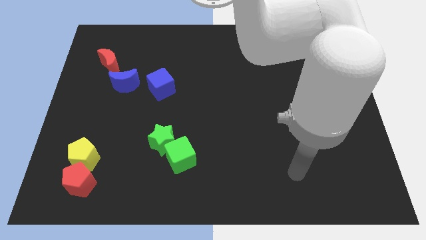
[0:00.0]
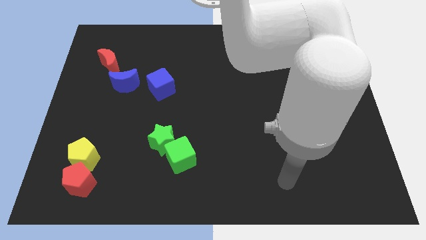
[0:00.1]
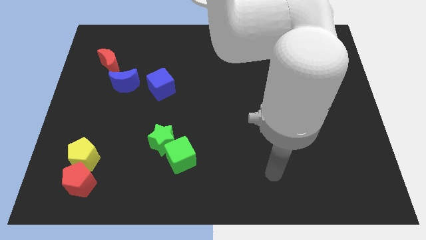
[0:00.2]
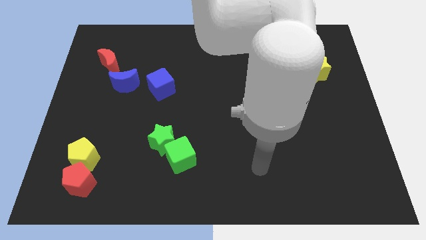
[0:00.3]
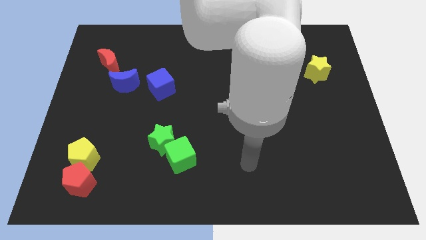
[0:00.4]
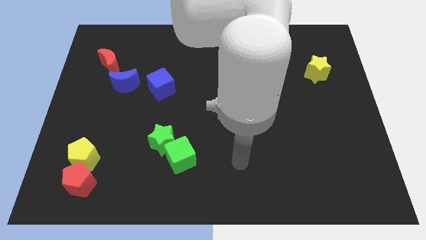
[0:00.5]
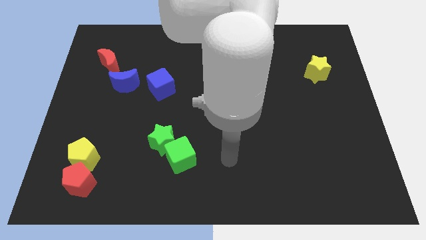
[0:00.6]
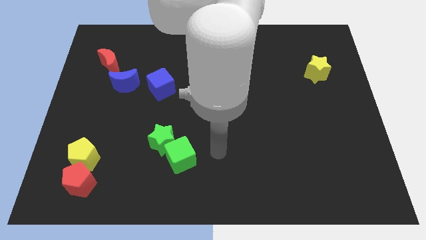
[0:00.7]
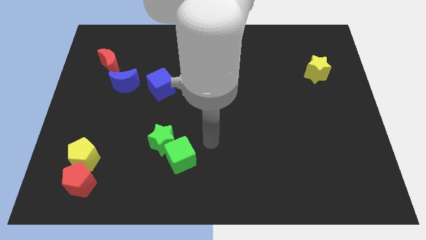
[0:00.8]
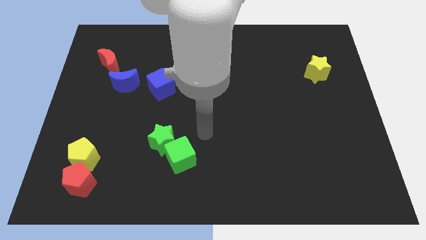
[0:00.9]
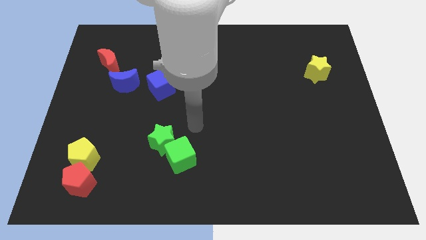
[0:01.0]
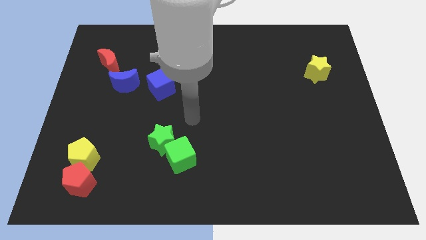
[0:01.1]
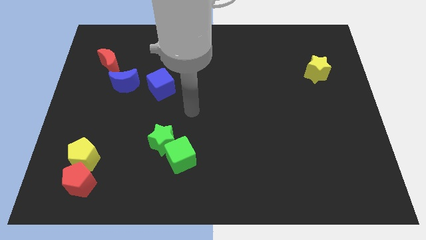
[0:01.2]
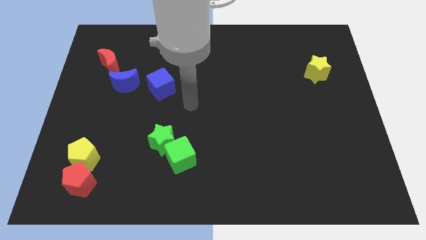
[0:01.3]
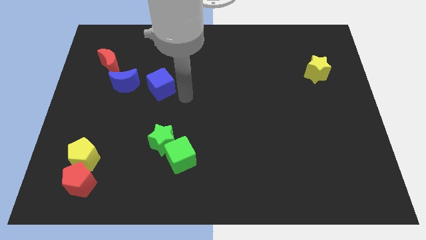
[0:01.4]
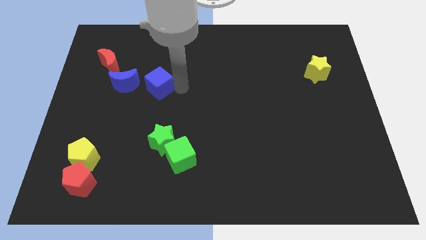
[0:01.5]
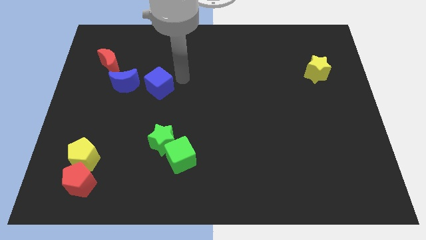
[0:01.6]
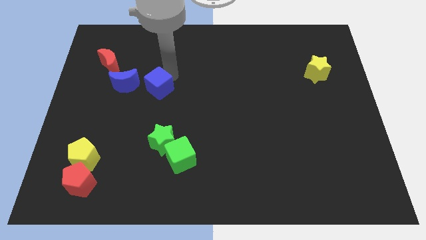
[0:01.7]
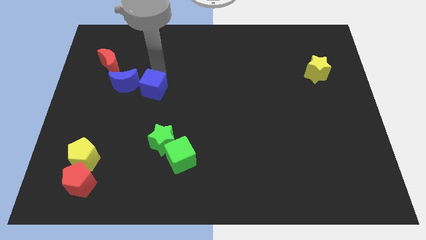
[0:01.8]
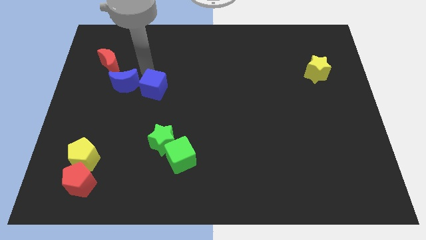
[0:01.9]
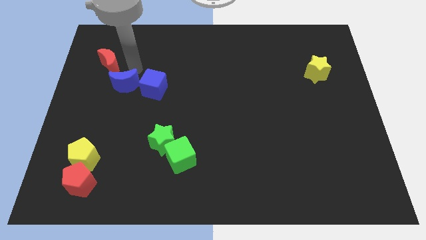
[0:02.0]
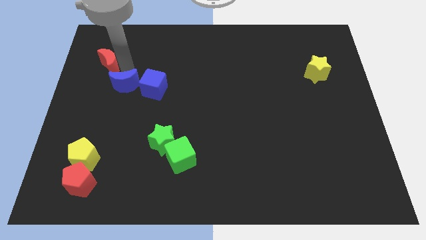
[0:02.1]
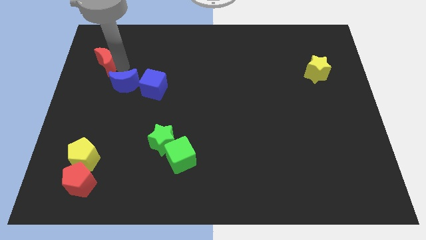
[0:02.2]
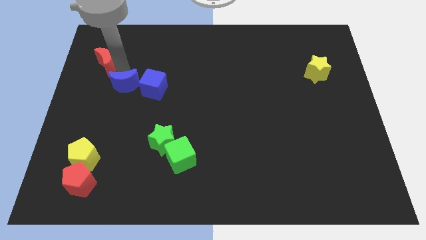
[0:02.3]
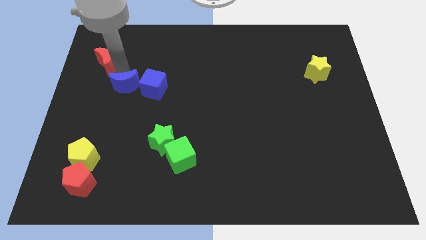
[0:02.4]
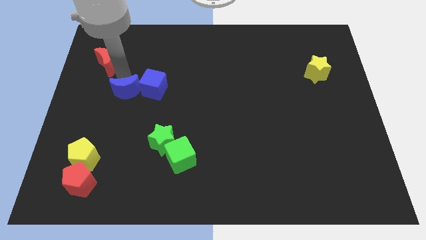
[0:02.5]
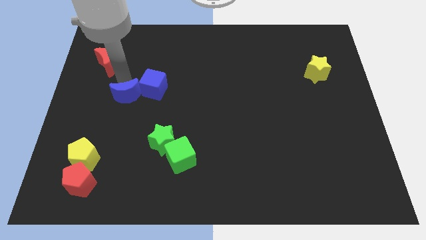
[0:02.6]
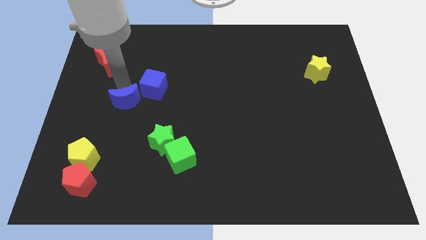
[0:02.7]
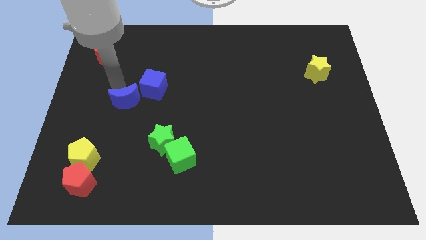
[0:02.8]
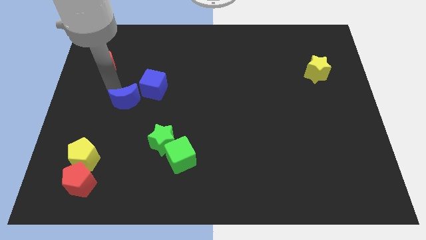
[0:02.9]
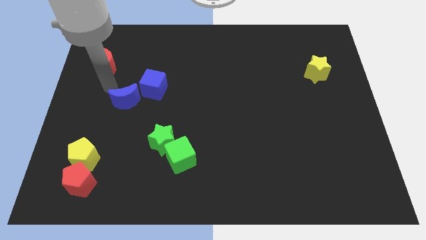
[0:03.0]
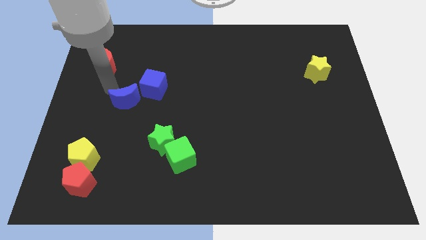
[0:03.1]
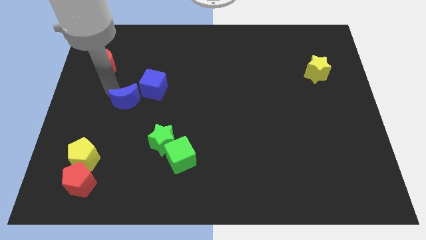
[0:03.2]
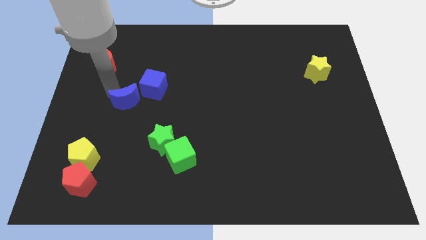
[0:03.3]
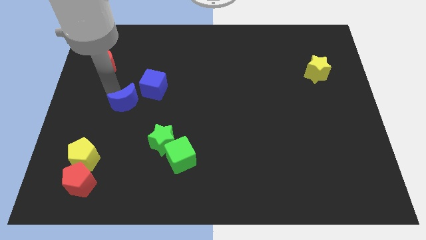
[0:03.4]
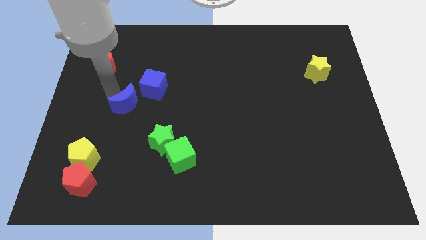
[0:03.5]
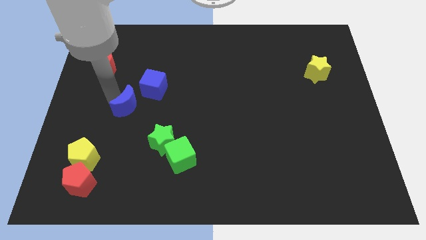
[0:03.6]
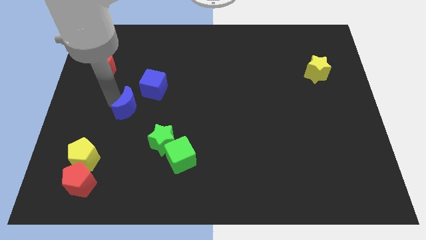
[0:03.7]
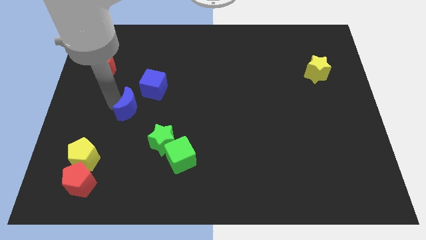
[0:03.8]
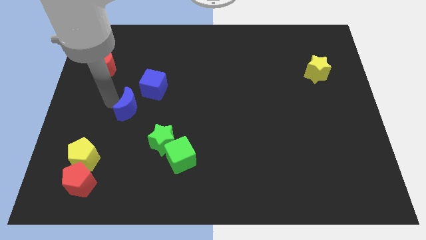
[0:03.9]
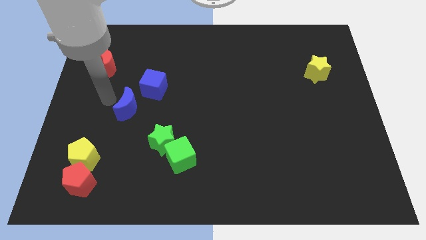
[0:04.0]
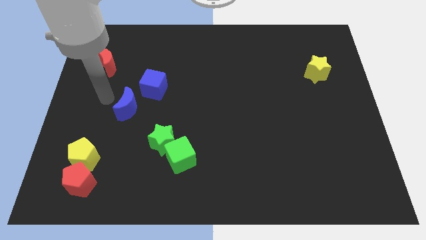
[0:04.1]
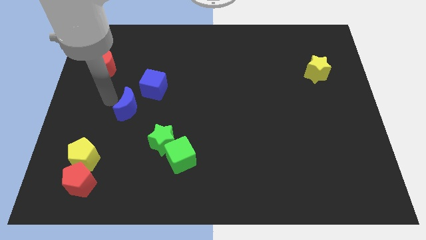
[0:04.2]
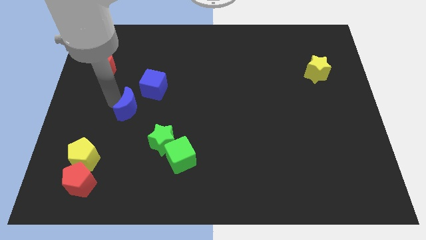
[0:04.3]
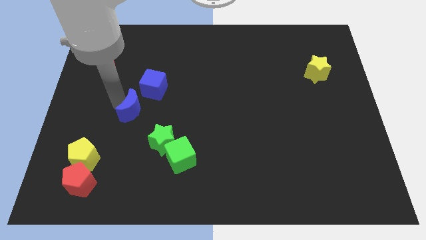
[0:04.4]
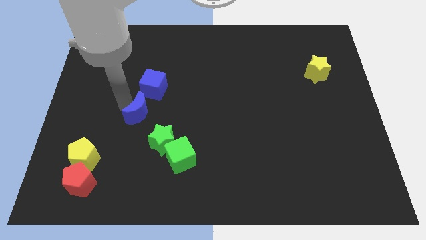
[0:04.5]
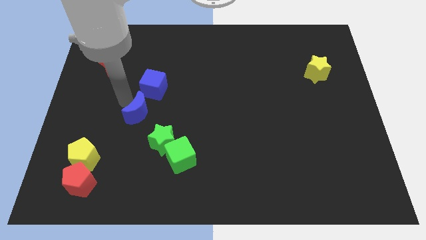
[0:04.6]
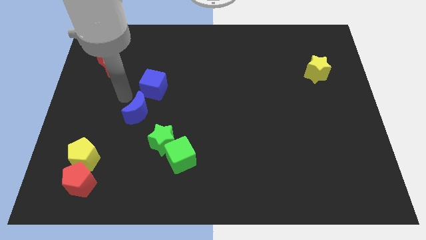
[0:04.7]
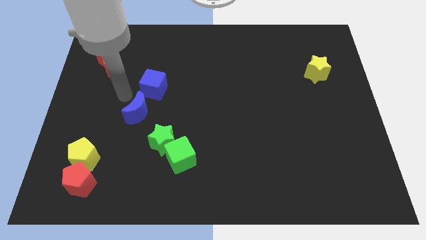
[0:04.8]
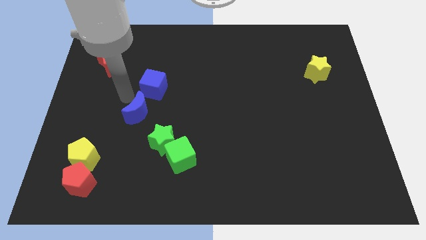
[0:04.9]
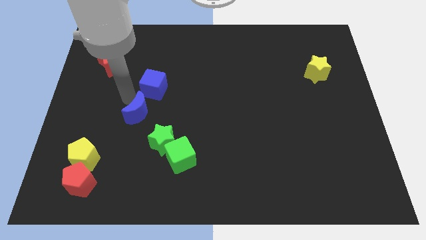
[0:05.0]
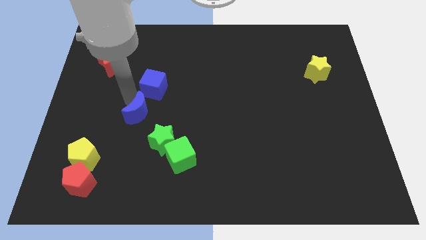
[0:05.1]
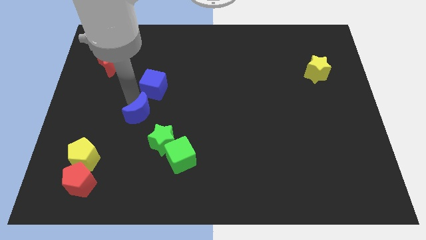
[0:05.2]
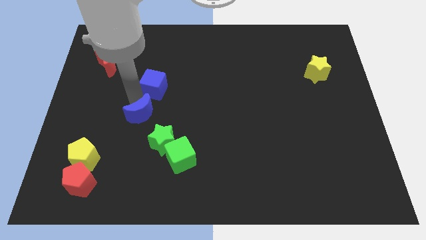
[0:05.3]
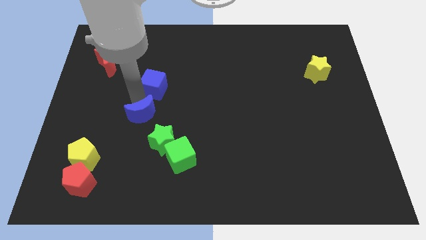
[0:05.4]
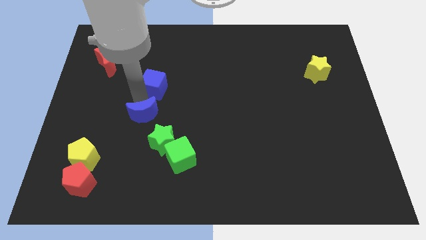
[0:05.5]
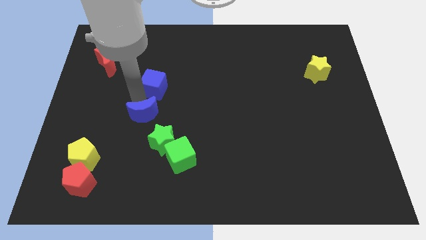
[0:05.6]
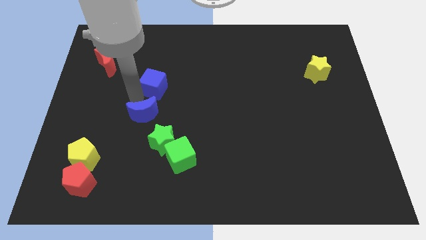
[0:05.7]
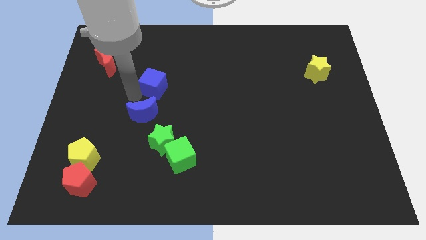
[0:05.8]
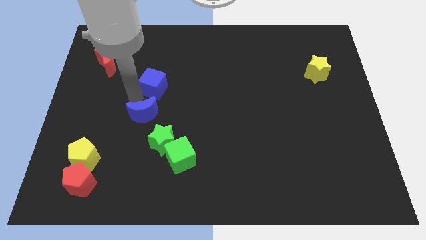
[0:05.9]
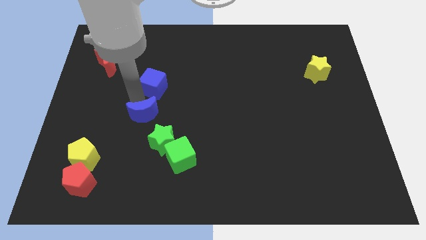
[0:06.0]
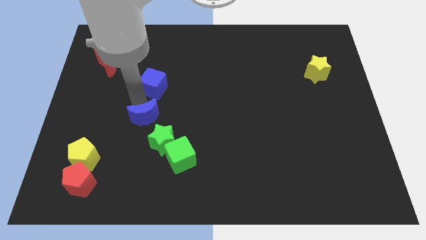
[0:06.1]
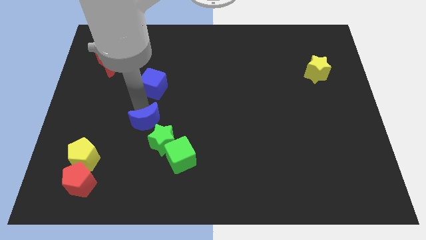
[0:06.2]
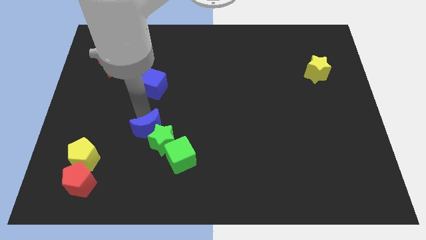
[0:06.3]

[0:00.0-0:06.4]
slide the blue moon close to the green star
